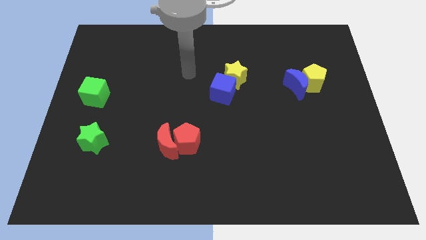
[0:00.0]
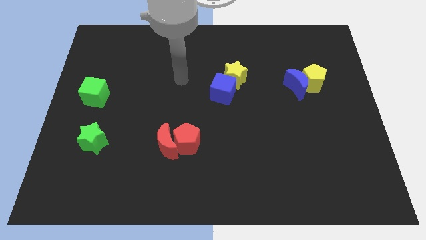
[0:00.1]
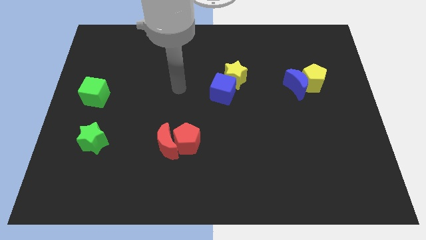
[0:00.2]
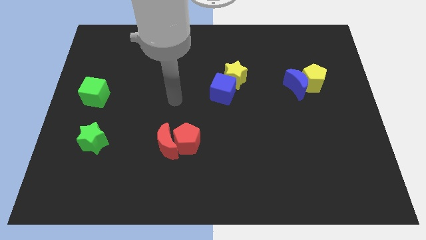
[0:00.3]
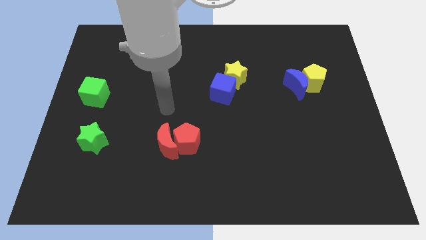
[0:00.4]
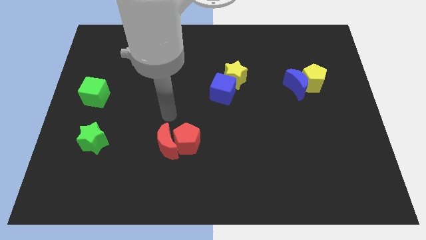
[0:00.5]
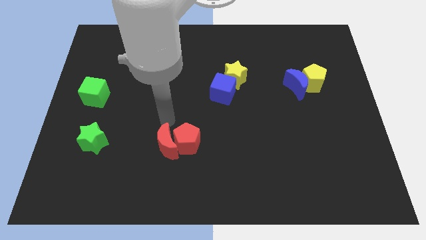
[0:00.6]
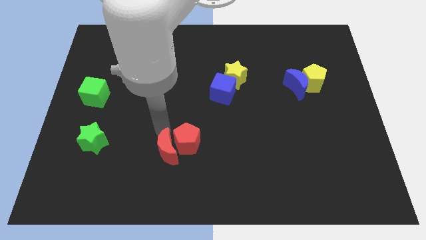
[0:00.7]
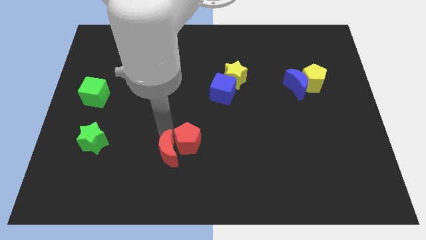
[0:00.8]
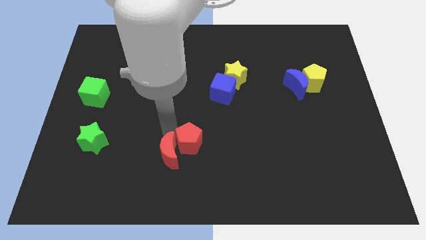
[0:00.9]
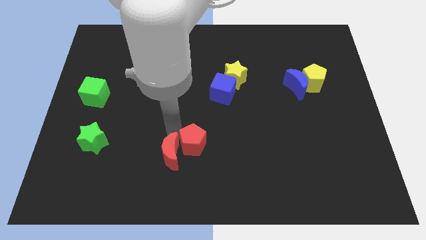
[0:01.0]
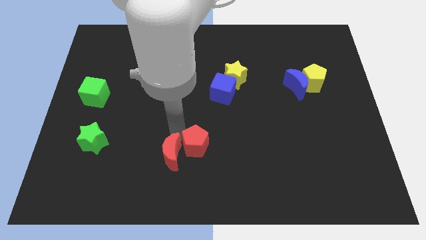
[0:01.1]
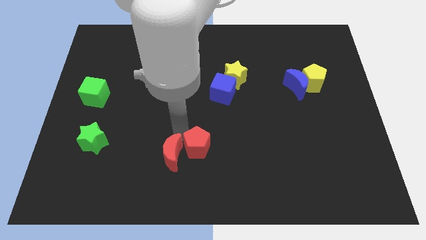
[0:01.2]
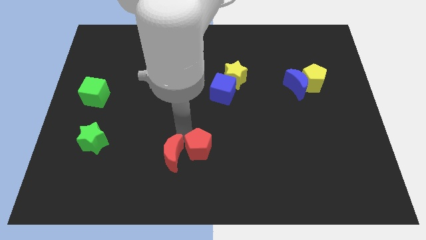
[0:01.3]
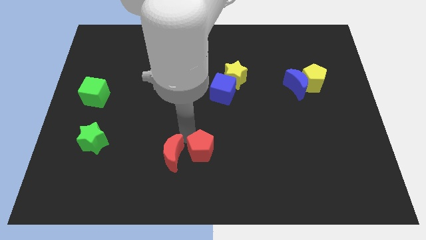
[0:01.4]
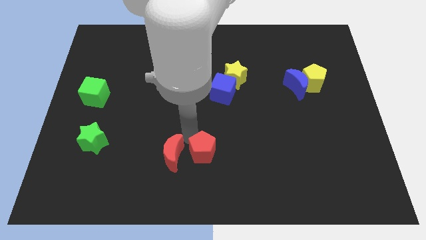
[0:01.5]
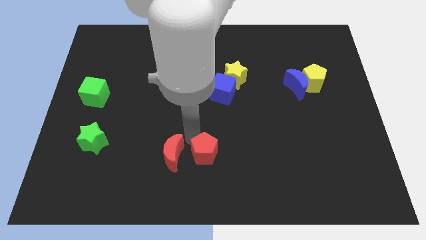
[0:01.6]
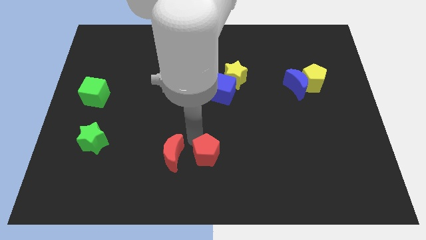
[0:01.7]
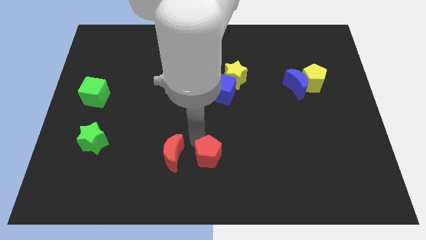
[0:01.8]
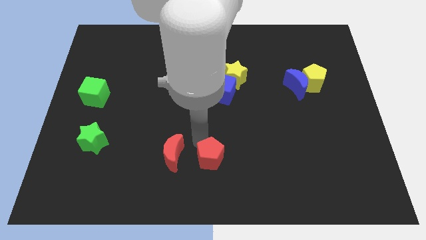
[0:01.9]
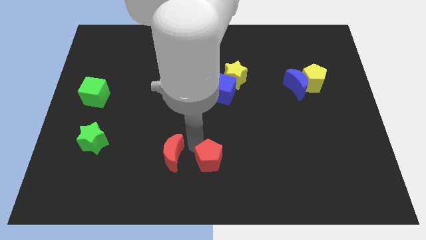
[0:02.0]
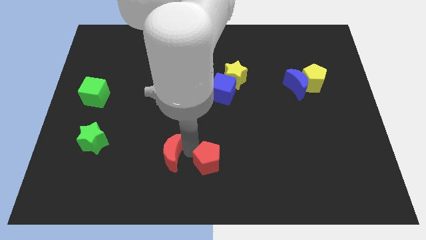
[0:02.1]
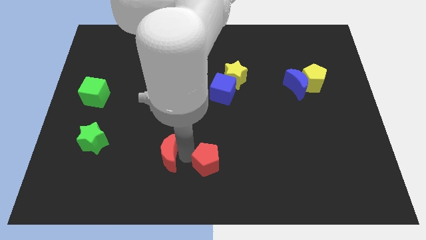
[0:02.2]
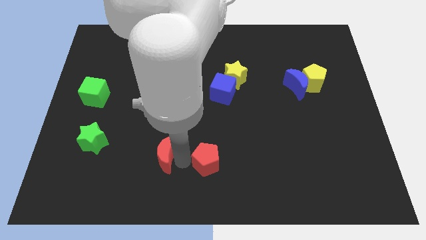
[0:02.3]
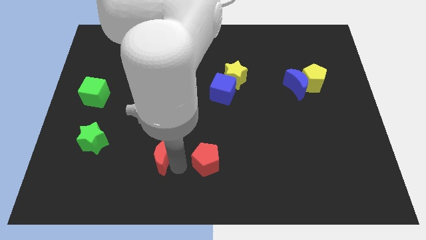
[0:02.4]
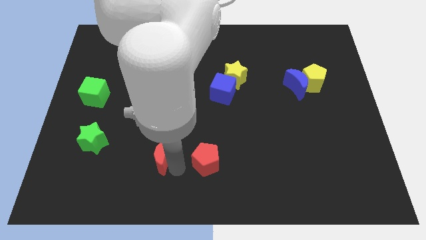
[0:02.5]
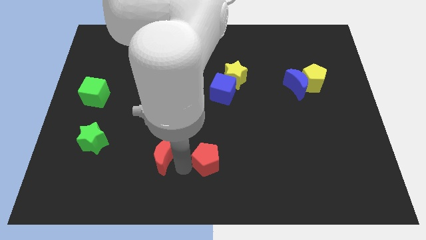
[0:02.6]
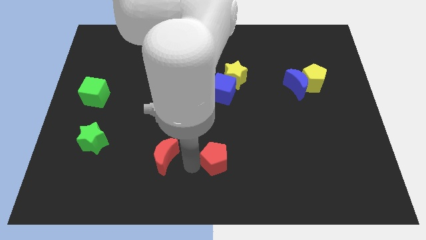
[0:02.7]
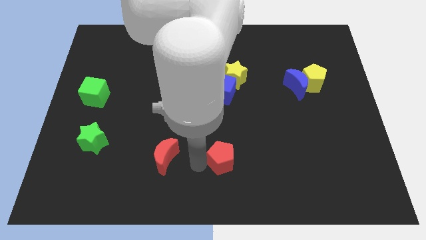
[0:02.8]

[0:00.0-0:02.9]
move the red pentagon a little right

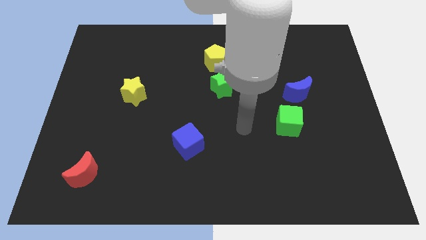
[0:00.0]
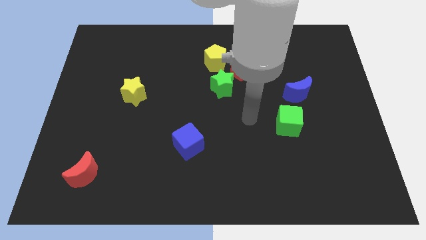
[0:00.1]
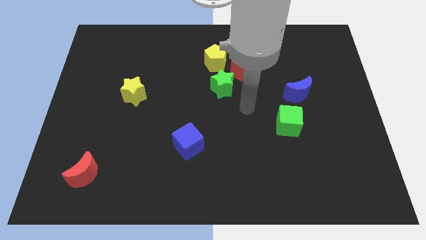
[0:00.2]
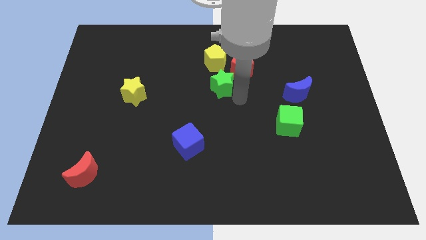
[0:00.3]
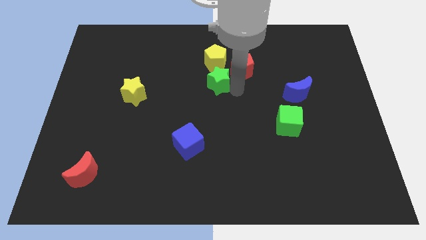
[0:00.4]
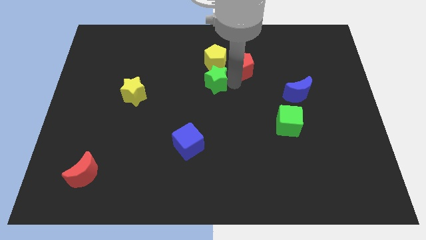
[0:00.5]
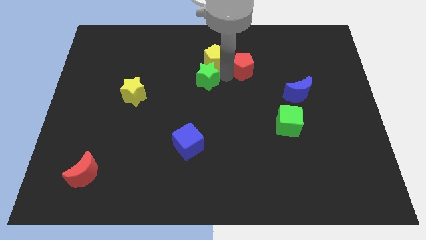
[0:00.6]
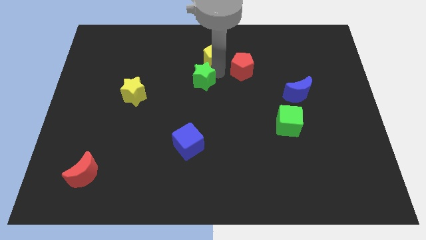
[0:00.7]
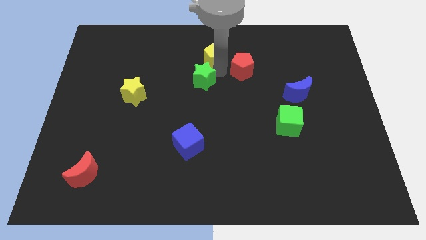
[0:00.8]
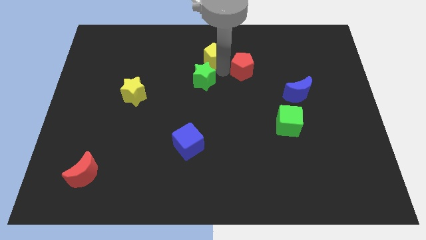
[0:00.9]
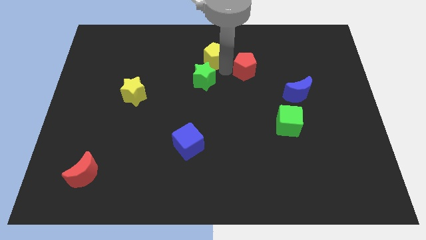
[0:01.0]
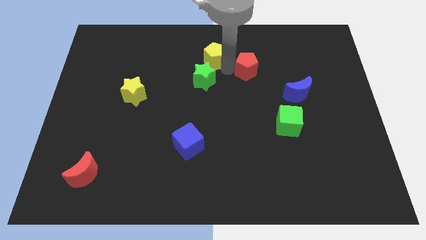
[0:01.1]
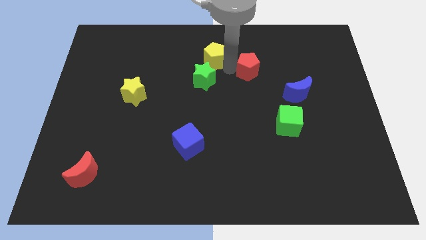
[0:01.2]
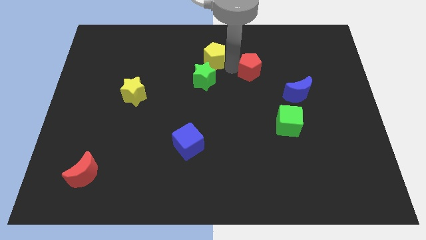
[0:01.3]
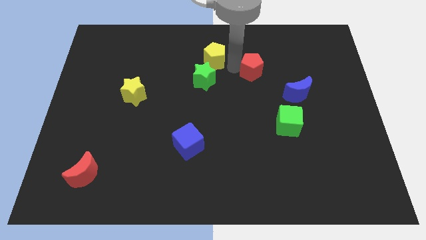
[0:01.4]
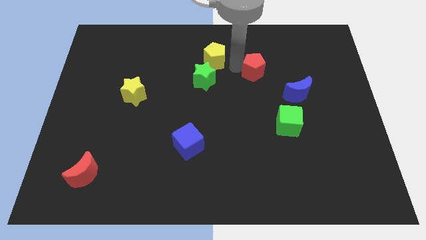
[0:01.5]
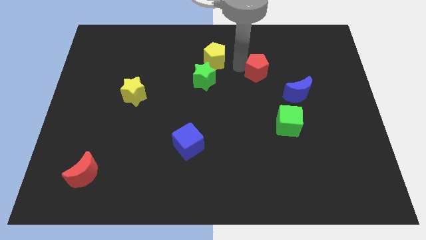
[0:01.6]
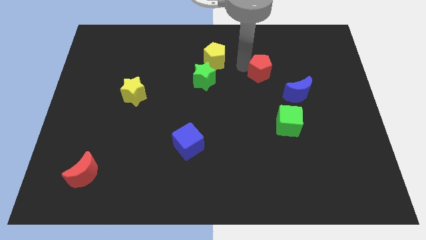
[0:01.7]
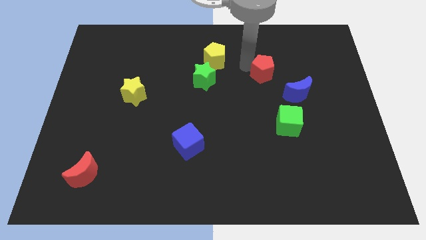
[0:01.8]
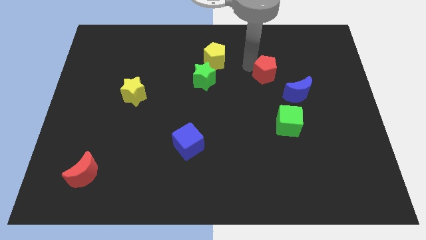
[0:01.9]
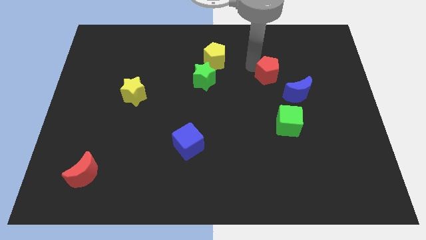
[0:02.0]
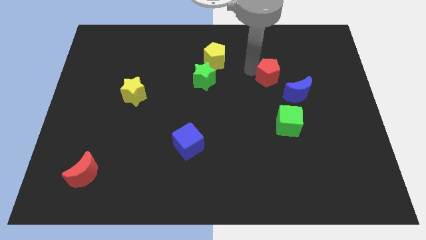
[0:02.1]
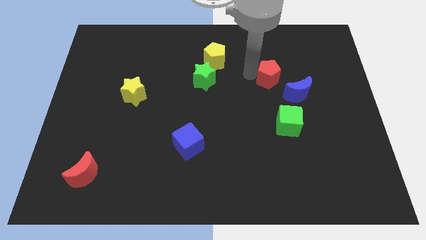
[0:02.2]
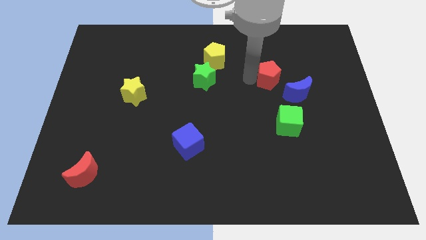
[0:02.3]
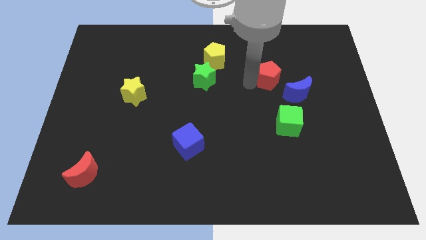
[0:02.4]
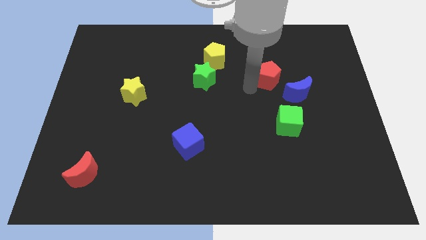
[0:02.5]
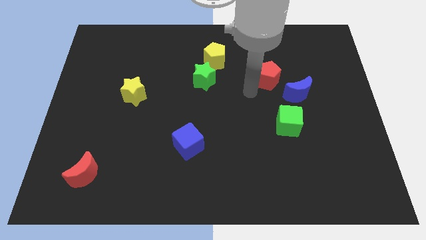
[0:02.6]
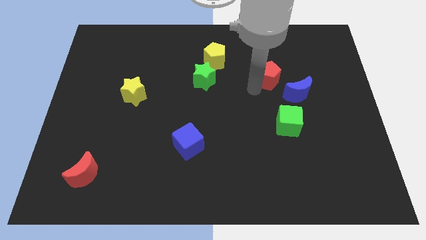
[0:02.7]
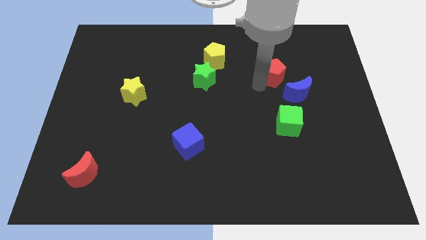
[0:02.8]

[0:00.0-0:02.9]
push the red pentagon right somewhat

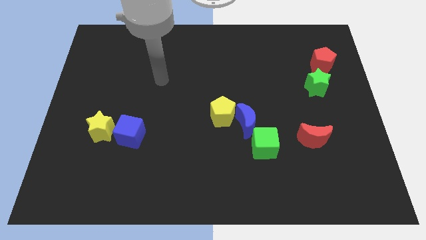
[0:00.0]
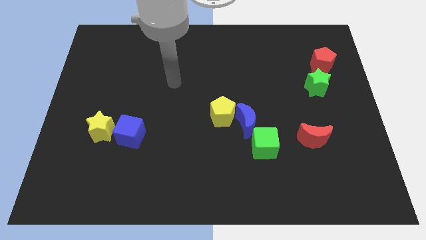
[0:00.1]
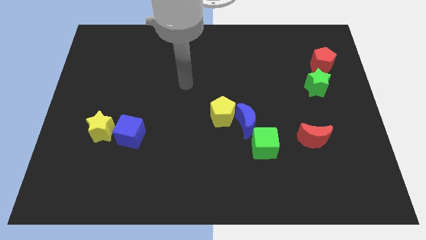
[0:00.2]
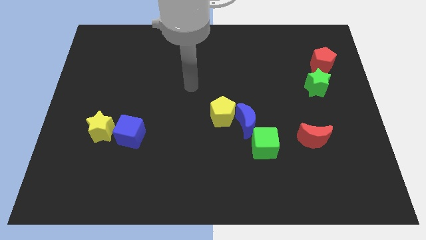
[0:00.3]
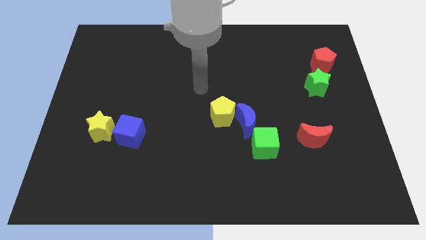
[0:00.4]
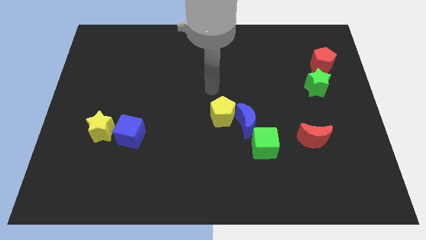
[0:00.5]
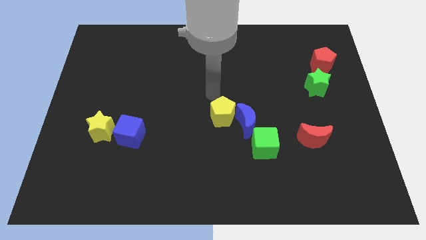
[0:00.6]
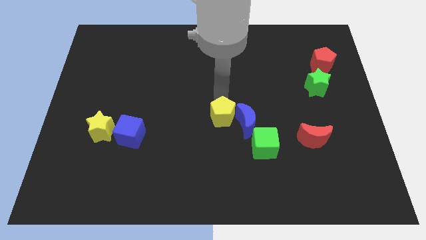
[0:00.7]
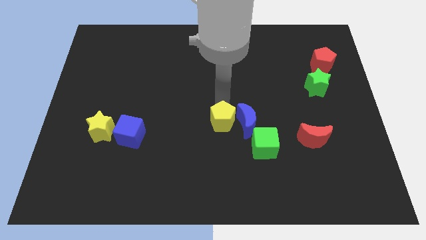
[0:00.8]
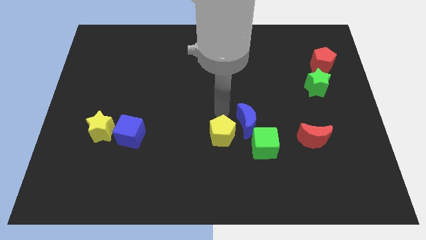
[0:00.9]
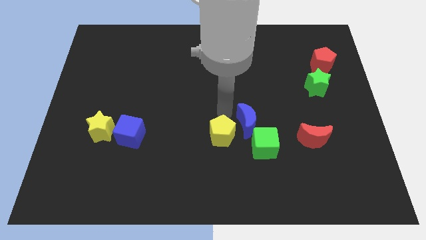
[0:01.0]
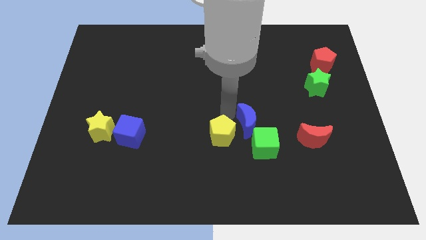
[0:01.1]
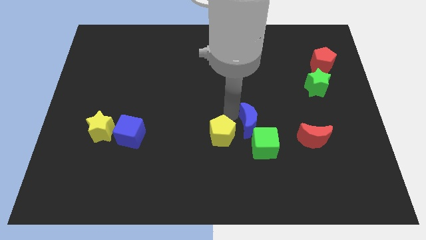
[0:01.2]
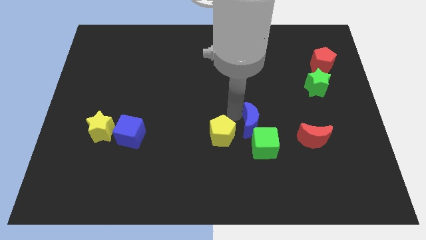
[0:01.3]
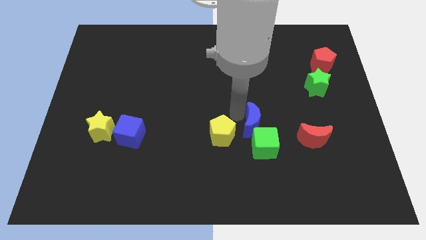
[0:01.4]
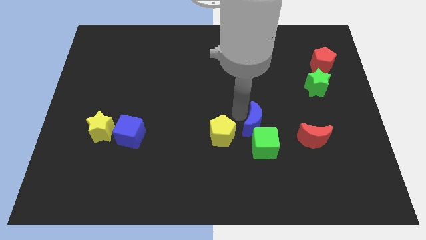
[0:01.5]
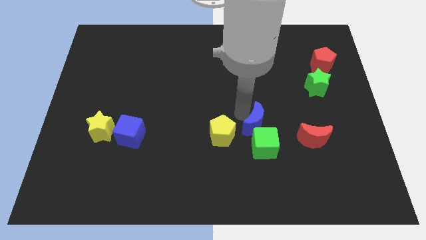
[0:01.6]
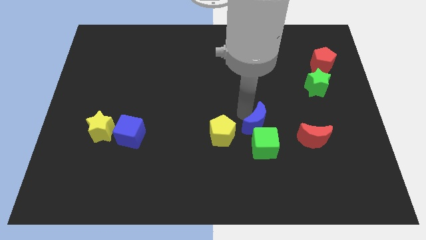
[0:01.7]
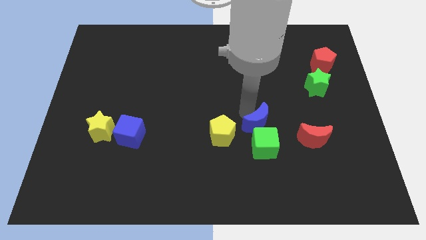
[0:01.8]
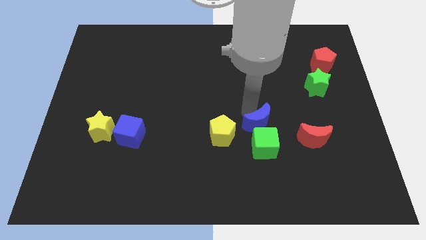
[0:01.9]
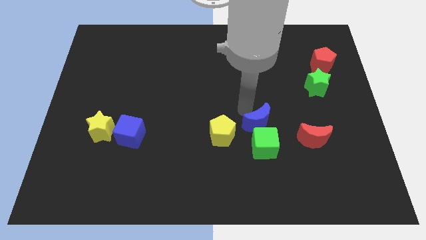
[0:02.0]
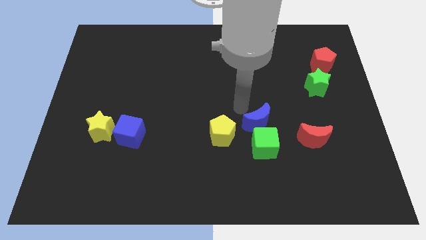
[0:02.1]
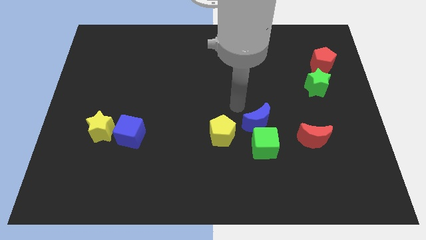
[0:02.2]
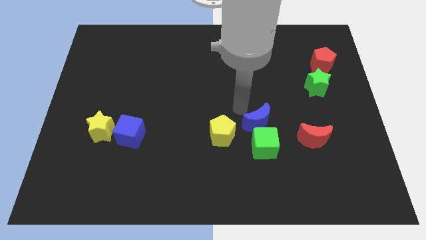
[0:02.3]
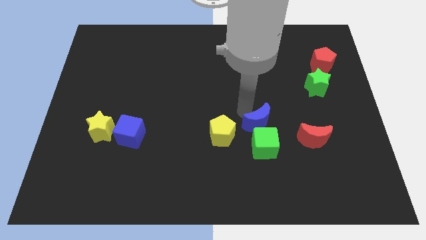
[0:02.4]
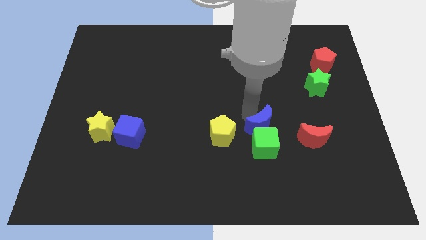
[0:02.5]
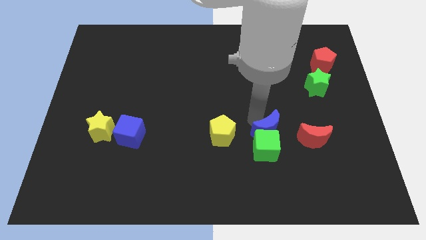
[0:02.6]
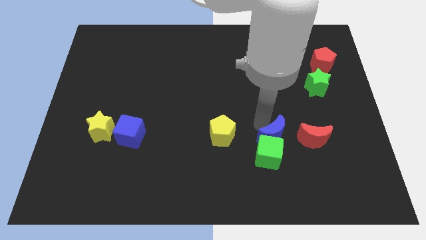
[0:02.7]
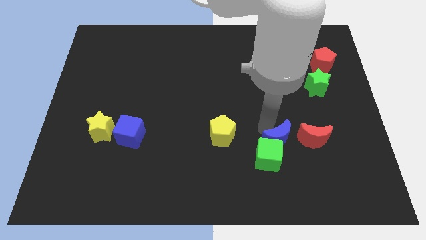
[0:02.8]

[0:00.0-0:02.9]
push the blue moon a little down and right diagonally
